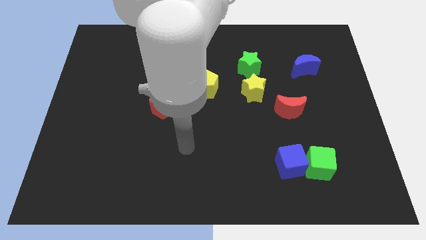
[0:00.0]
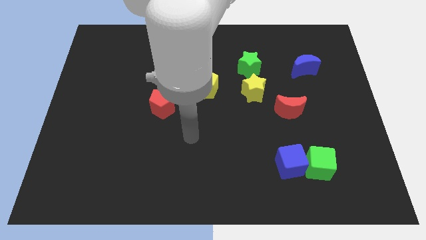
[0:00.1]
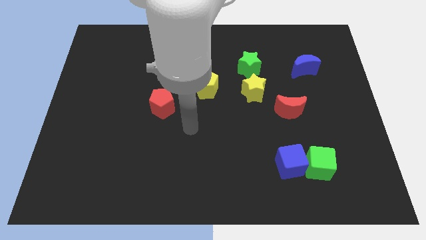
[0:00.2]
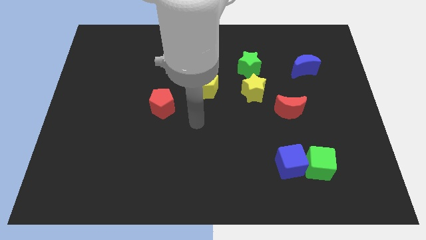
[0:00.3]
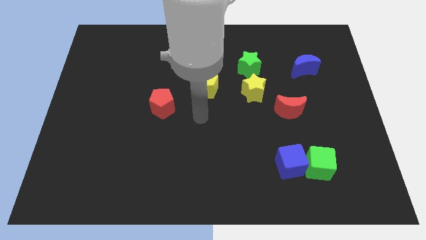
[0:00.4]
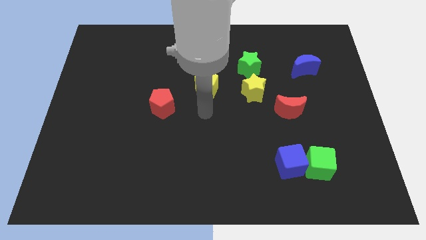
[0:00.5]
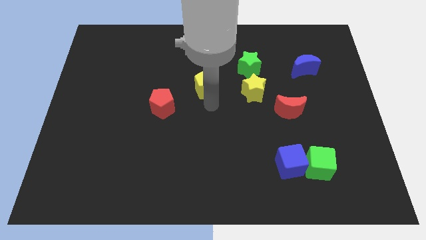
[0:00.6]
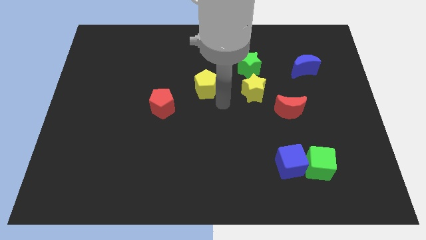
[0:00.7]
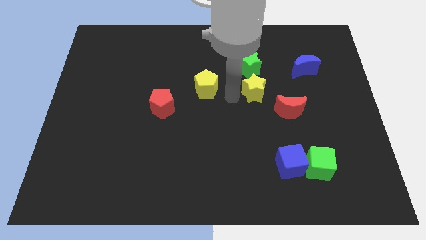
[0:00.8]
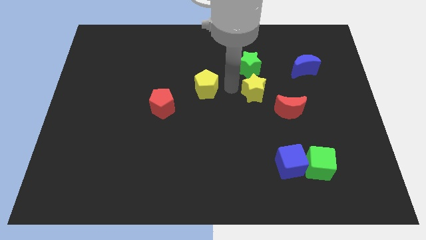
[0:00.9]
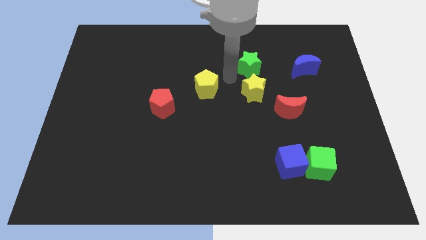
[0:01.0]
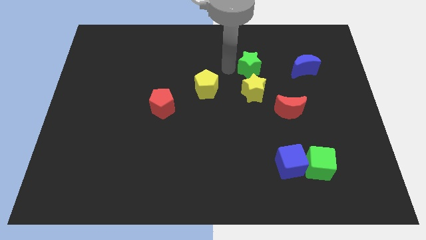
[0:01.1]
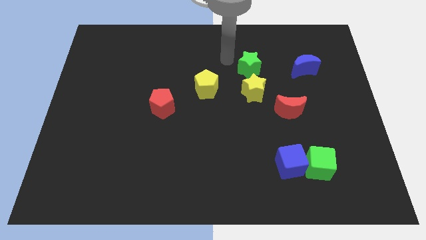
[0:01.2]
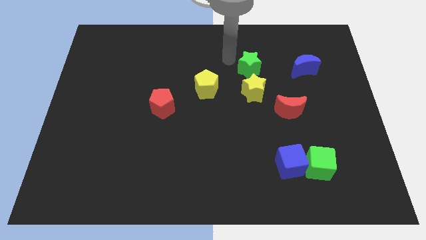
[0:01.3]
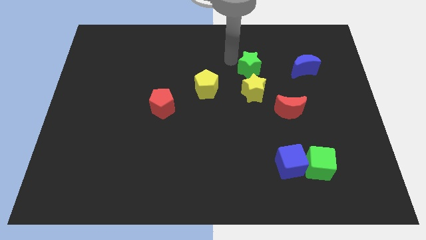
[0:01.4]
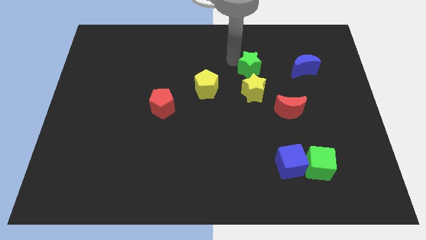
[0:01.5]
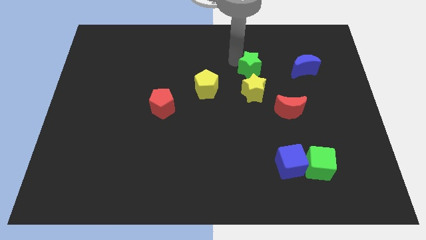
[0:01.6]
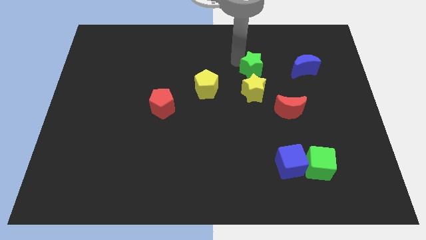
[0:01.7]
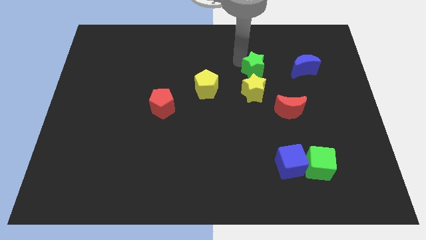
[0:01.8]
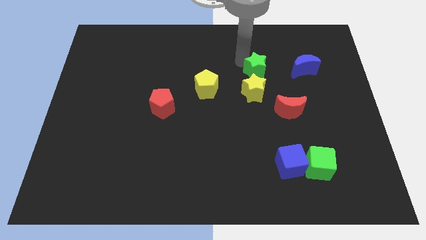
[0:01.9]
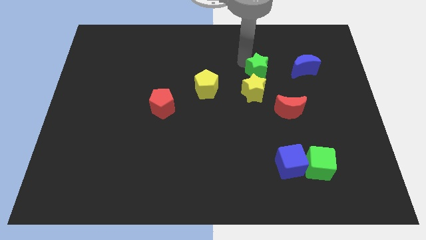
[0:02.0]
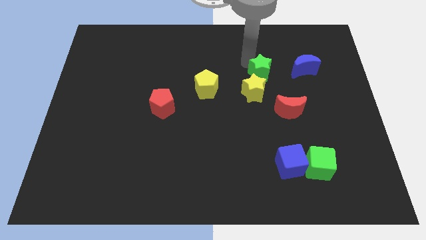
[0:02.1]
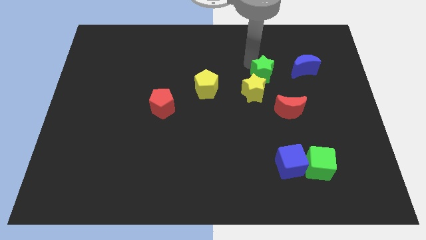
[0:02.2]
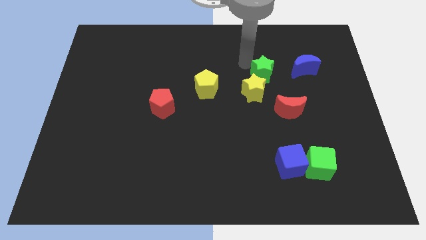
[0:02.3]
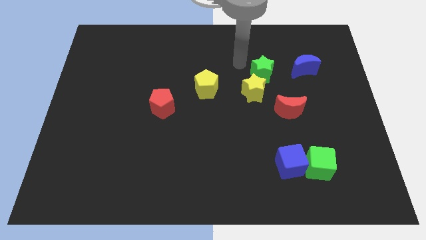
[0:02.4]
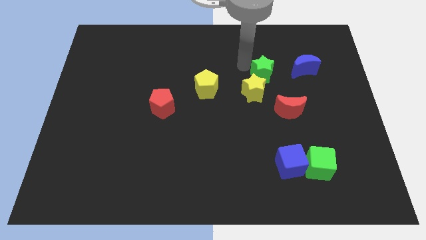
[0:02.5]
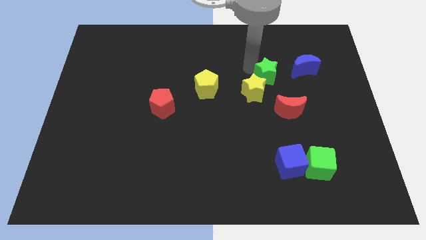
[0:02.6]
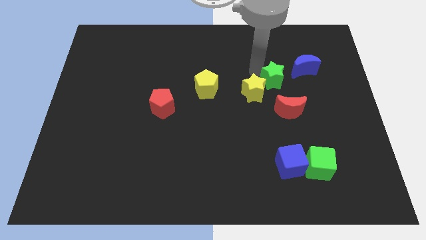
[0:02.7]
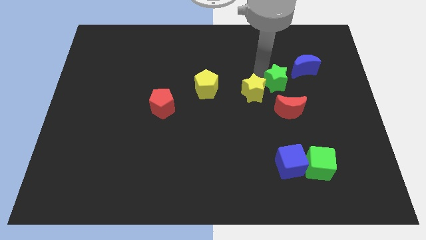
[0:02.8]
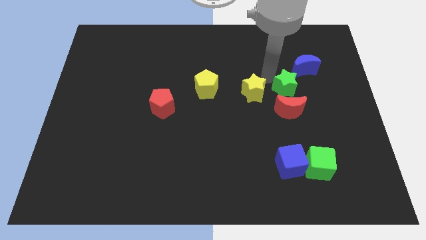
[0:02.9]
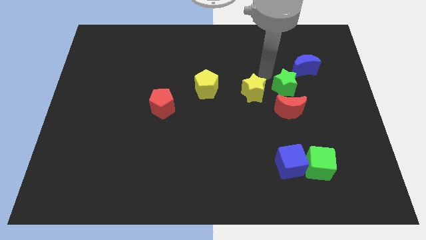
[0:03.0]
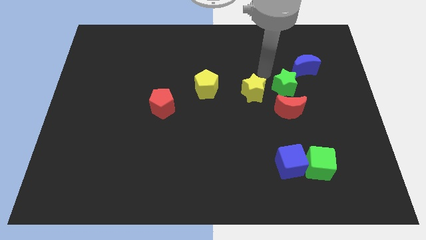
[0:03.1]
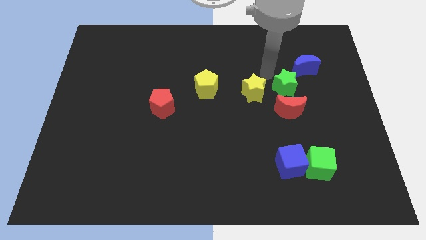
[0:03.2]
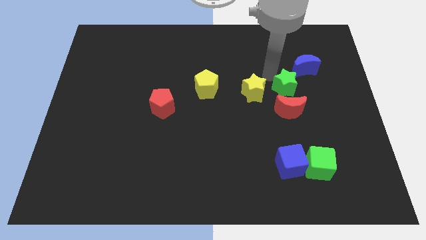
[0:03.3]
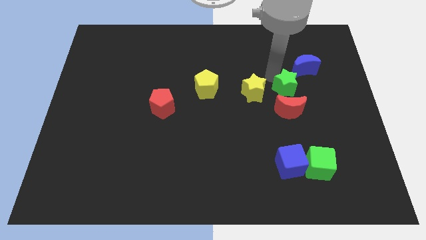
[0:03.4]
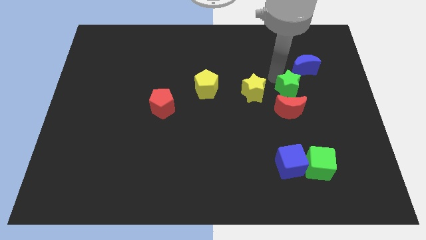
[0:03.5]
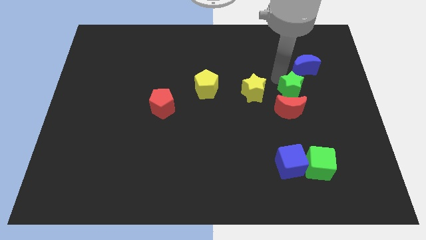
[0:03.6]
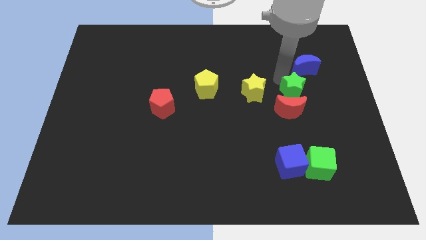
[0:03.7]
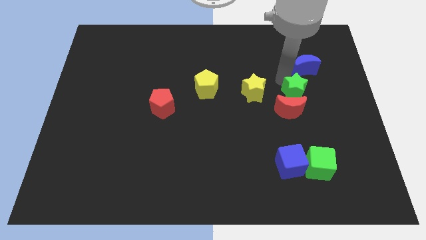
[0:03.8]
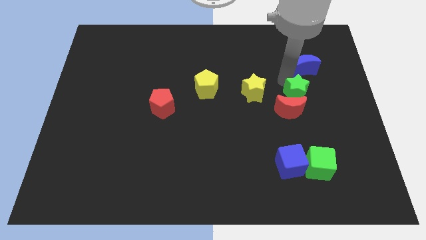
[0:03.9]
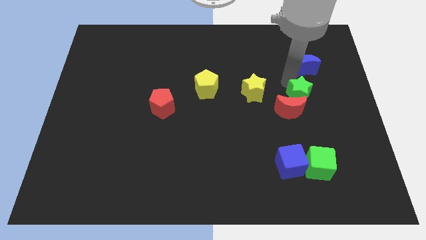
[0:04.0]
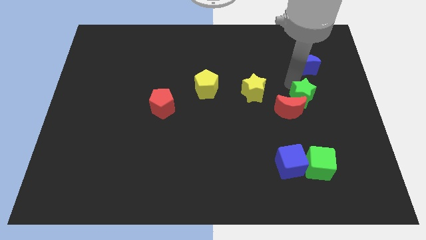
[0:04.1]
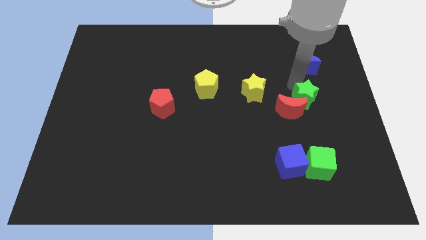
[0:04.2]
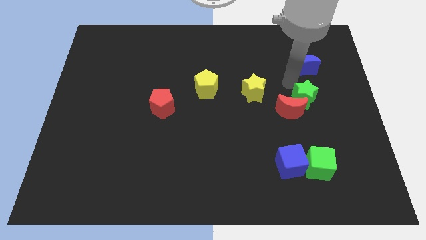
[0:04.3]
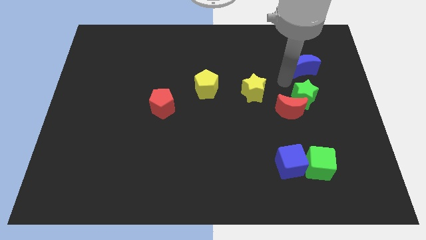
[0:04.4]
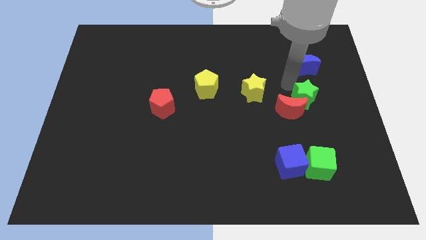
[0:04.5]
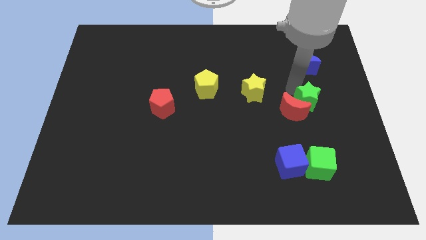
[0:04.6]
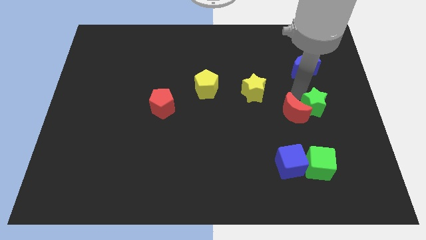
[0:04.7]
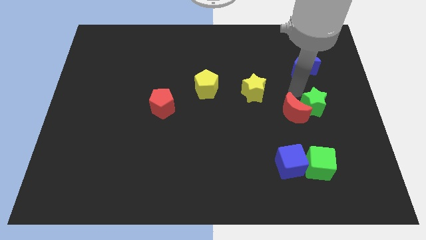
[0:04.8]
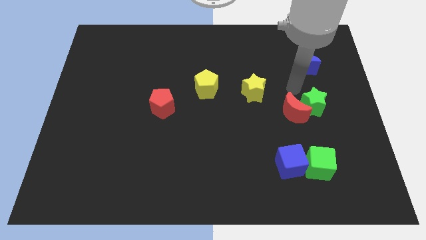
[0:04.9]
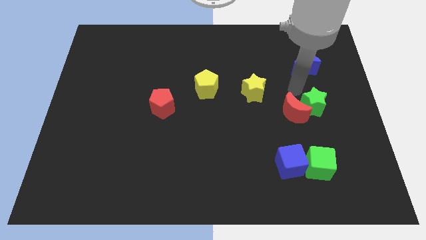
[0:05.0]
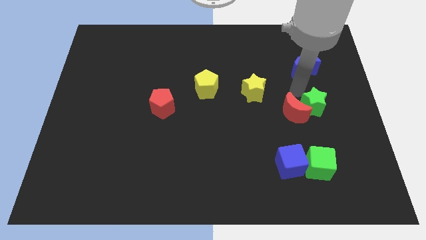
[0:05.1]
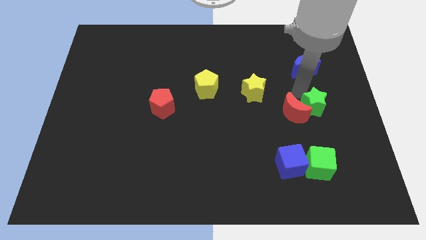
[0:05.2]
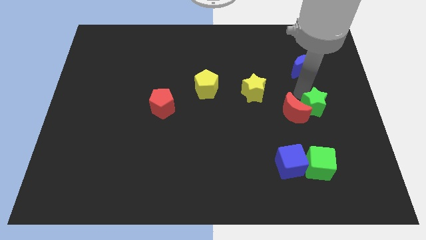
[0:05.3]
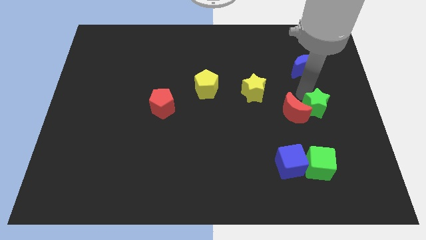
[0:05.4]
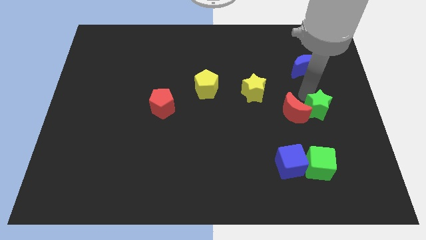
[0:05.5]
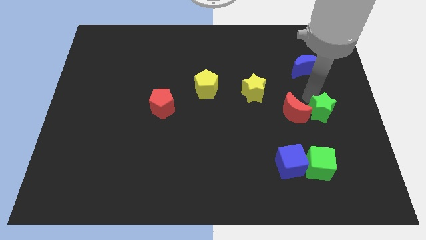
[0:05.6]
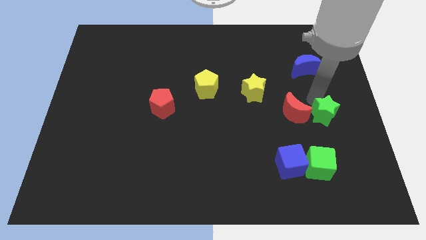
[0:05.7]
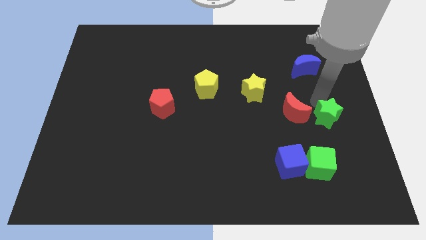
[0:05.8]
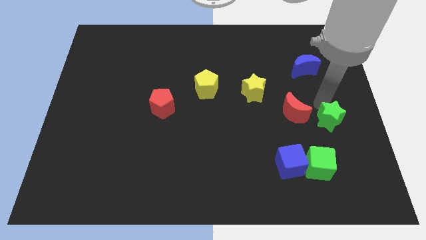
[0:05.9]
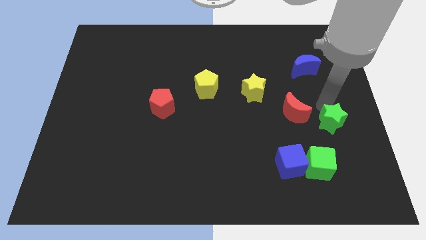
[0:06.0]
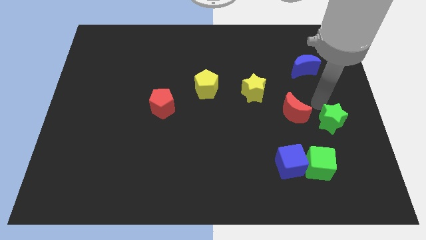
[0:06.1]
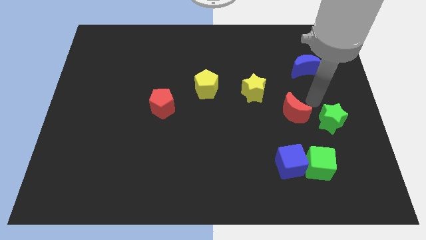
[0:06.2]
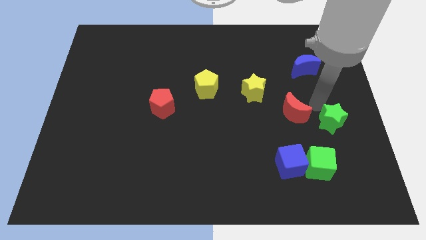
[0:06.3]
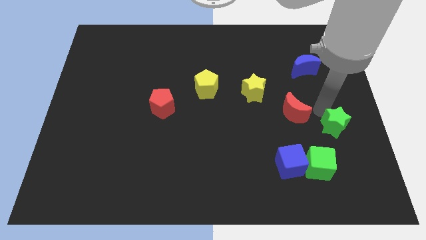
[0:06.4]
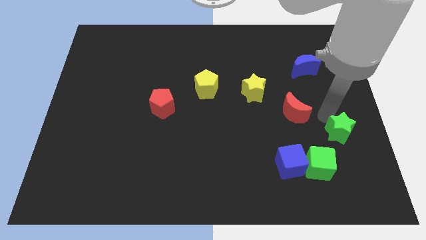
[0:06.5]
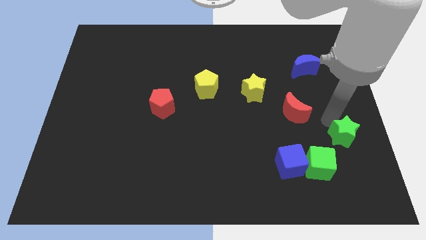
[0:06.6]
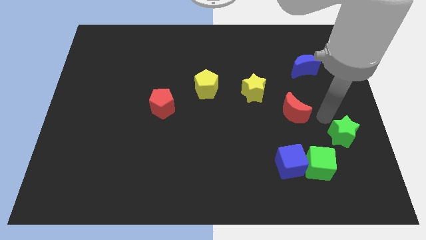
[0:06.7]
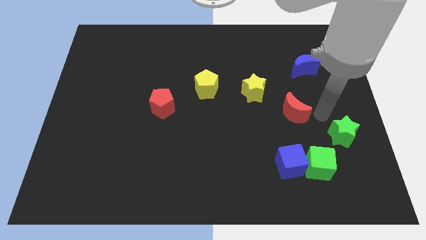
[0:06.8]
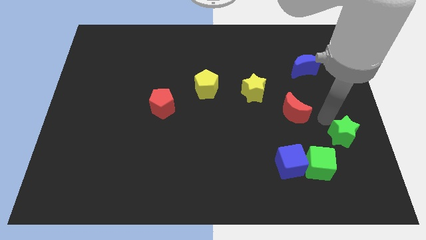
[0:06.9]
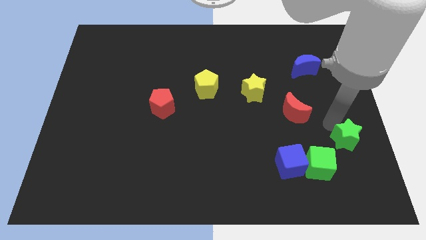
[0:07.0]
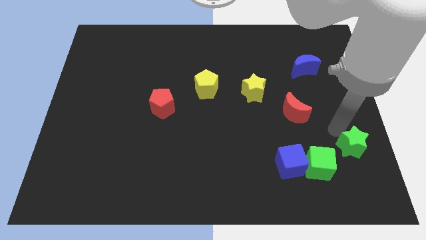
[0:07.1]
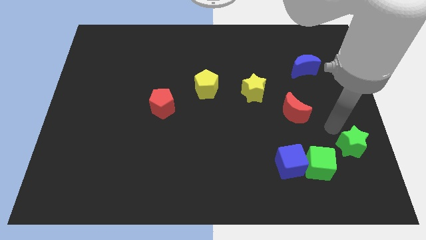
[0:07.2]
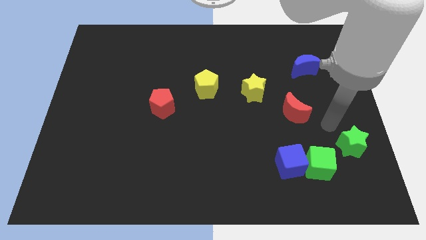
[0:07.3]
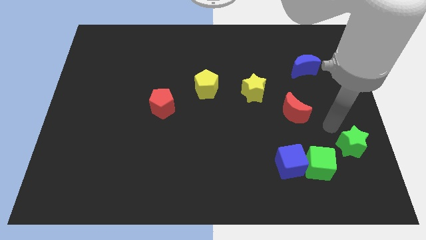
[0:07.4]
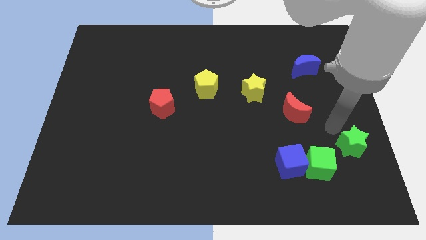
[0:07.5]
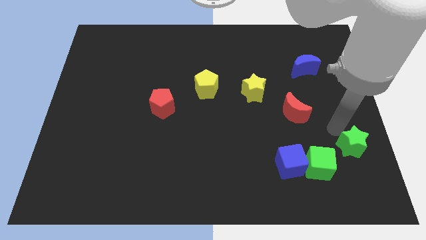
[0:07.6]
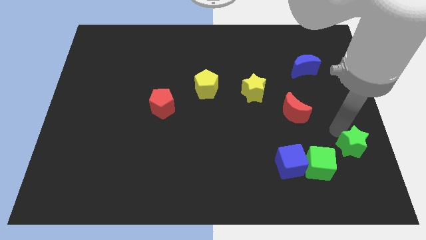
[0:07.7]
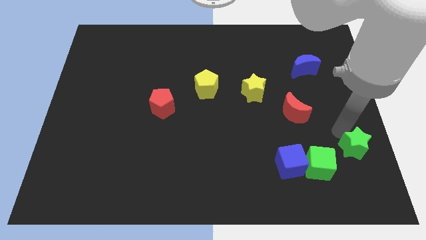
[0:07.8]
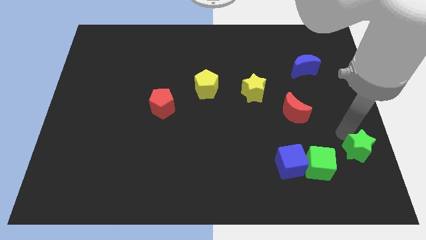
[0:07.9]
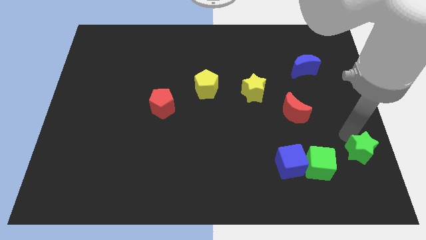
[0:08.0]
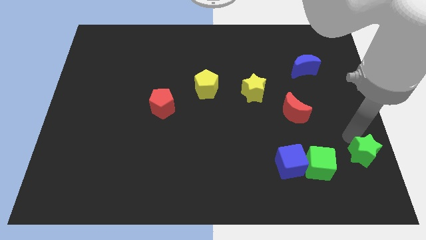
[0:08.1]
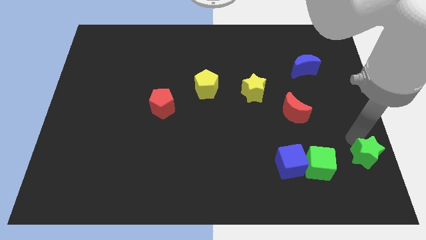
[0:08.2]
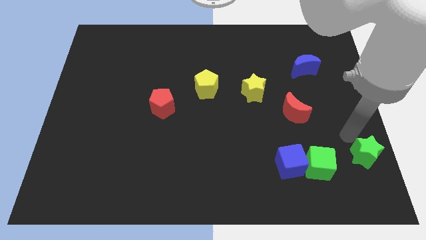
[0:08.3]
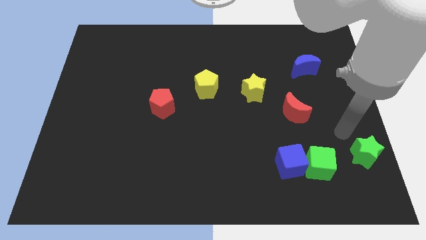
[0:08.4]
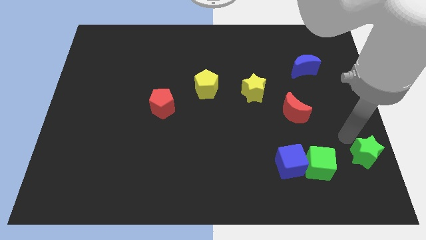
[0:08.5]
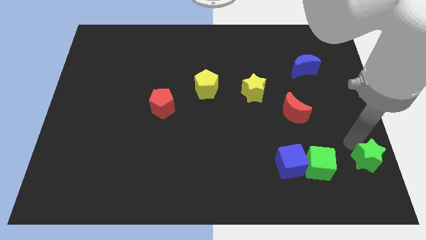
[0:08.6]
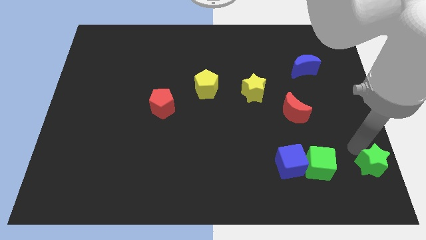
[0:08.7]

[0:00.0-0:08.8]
push the green star to the bottom right corner
